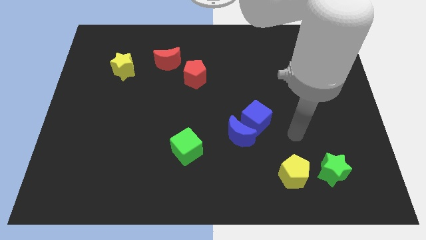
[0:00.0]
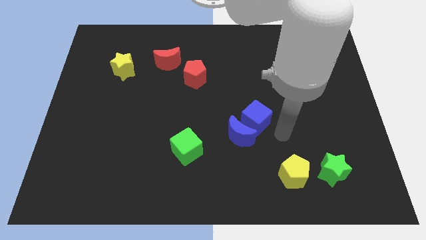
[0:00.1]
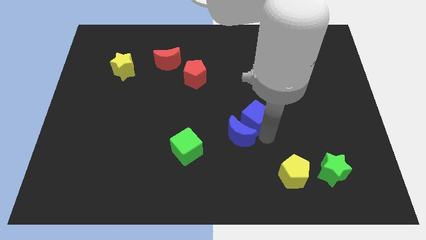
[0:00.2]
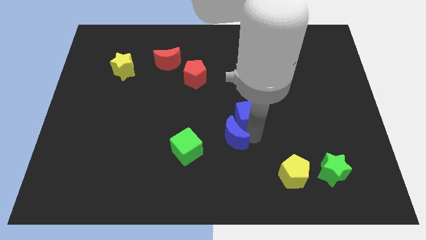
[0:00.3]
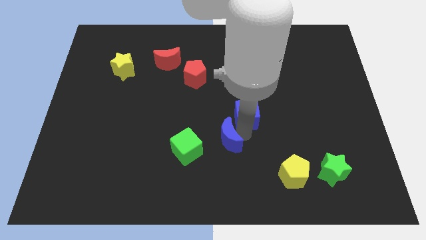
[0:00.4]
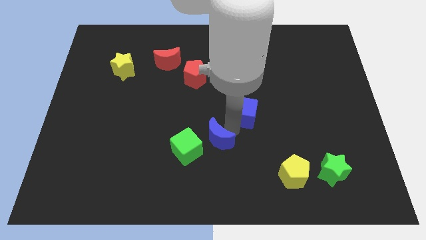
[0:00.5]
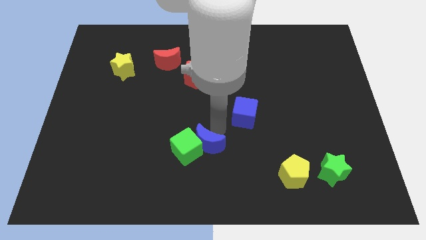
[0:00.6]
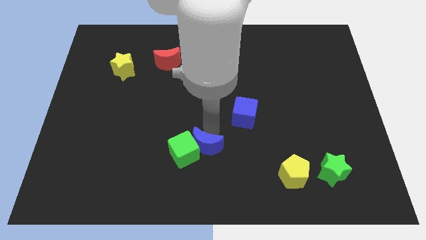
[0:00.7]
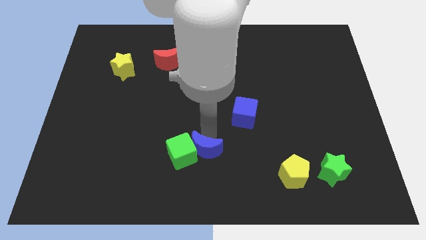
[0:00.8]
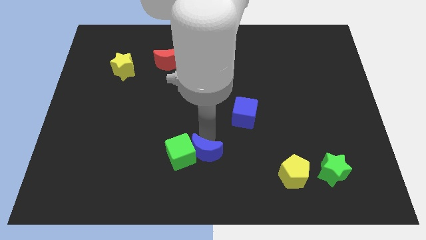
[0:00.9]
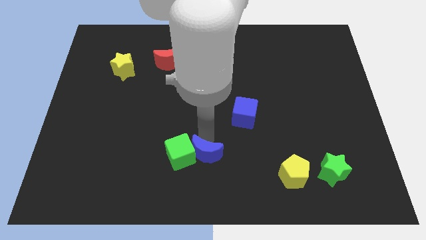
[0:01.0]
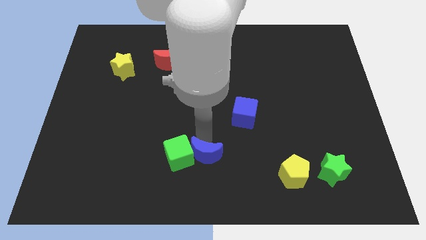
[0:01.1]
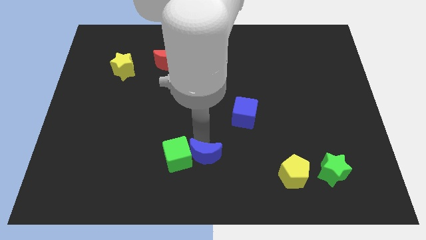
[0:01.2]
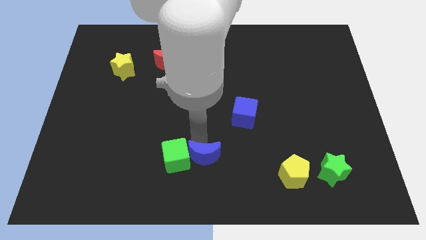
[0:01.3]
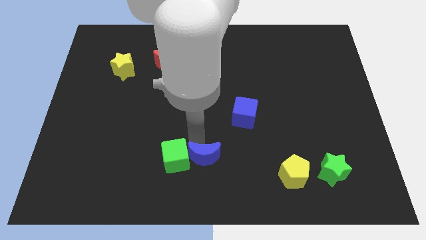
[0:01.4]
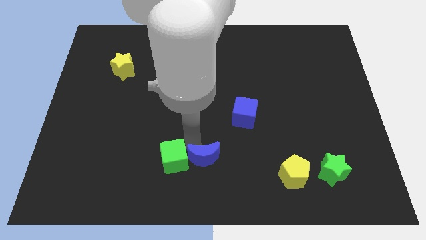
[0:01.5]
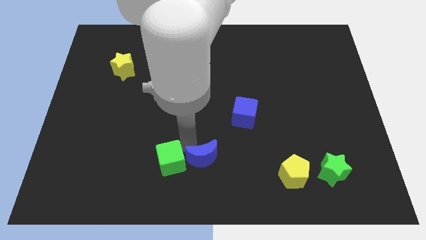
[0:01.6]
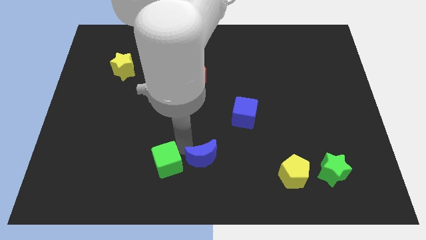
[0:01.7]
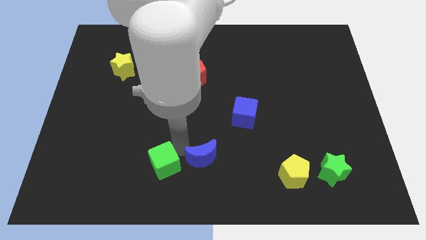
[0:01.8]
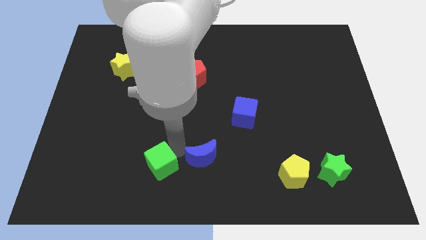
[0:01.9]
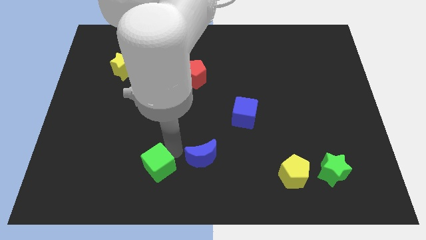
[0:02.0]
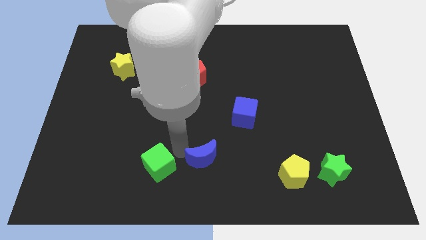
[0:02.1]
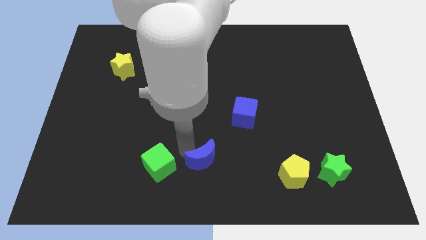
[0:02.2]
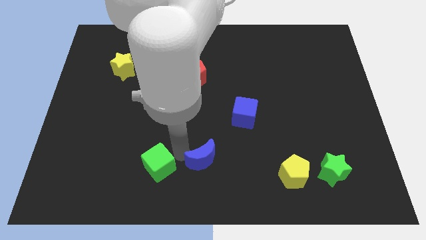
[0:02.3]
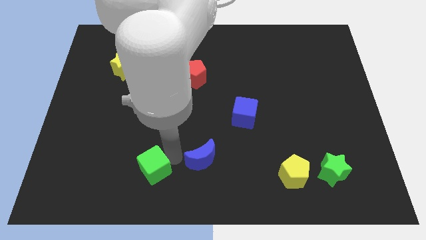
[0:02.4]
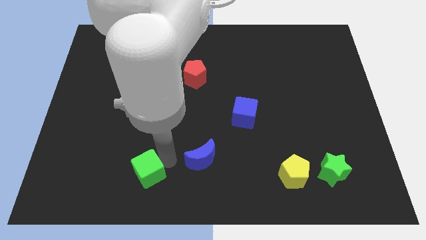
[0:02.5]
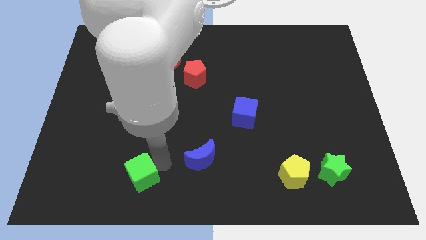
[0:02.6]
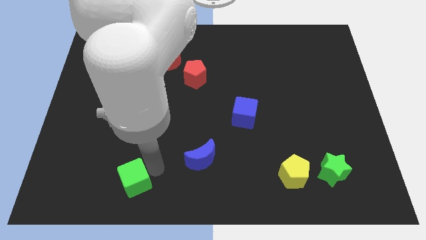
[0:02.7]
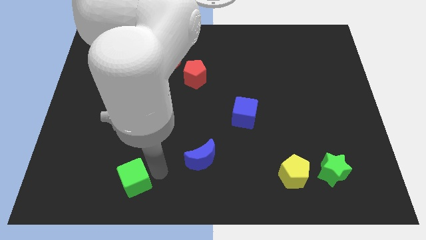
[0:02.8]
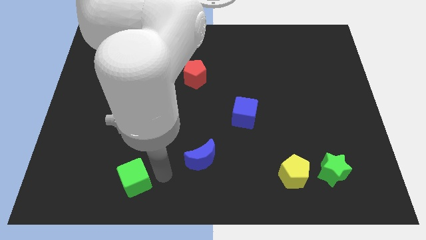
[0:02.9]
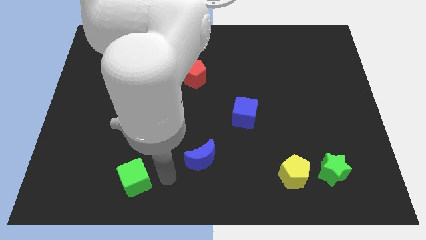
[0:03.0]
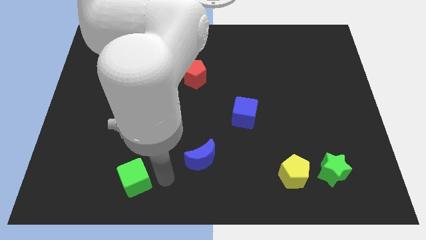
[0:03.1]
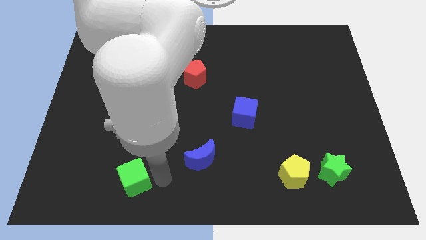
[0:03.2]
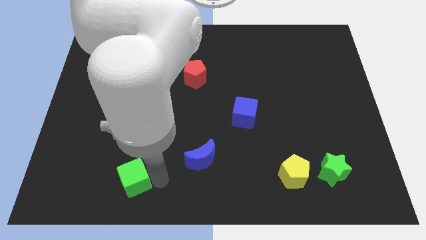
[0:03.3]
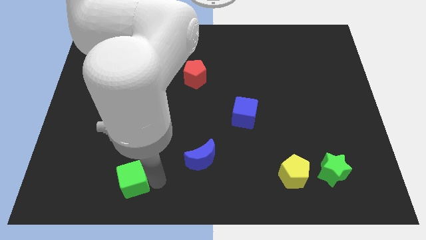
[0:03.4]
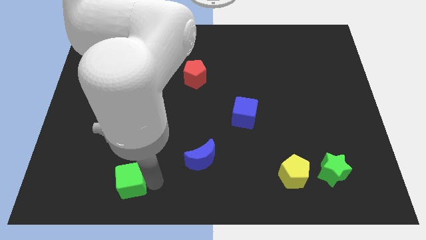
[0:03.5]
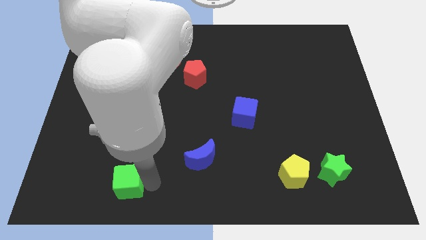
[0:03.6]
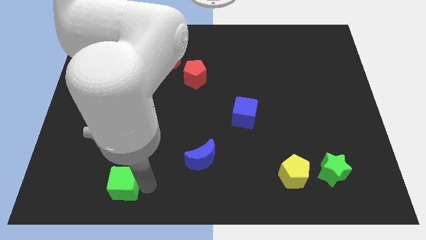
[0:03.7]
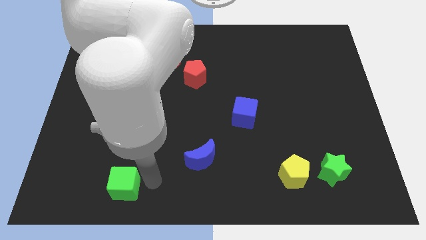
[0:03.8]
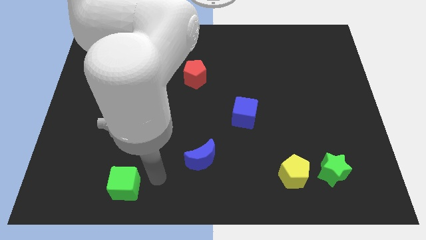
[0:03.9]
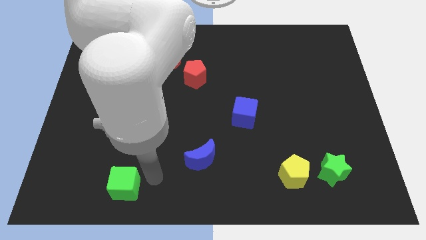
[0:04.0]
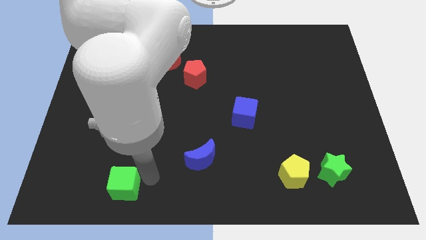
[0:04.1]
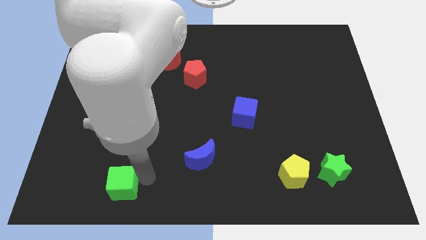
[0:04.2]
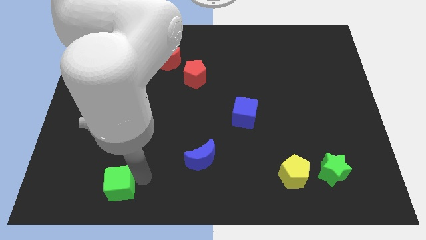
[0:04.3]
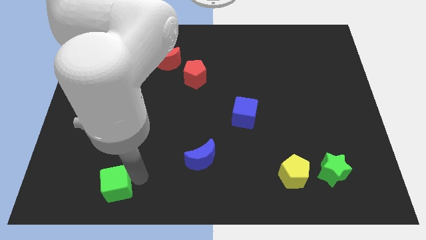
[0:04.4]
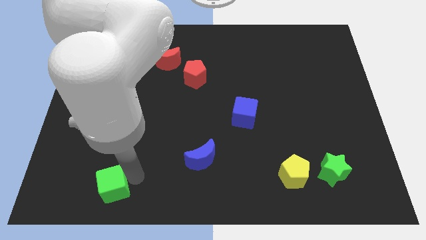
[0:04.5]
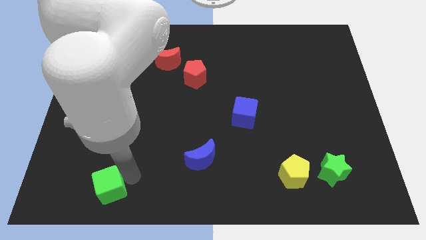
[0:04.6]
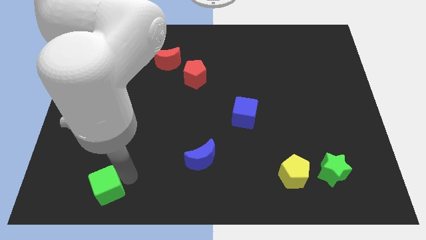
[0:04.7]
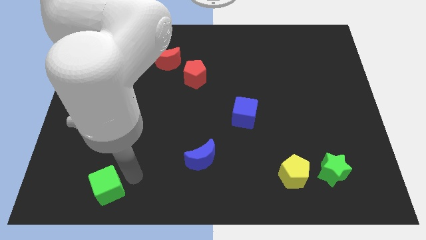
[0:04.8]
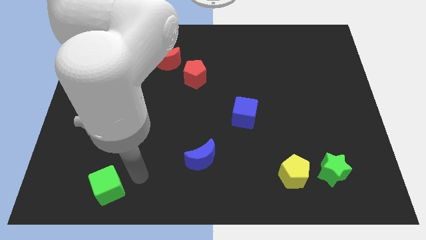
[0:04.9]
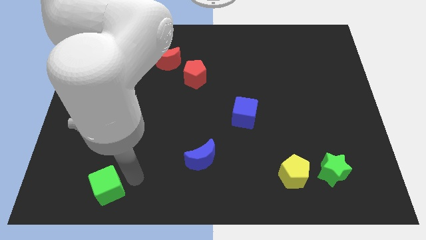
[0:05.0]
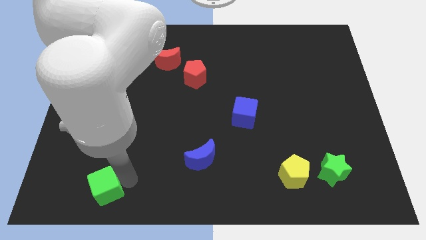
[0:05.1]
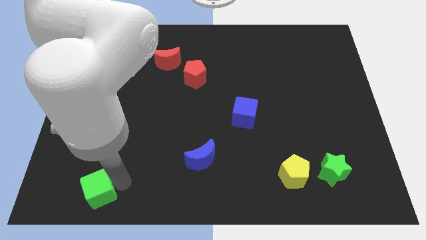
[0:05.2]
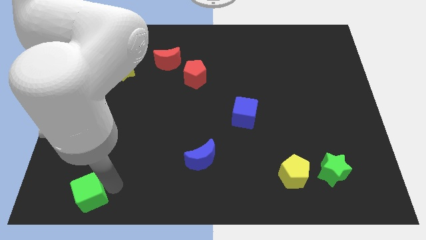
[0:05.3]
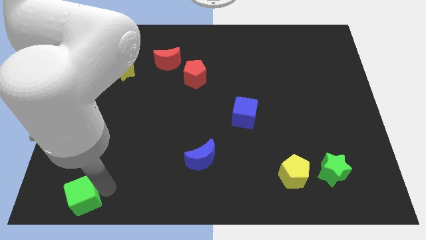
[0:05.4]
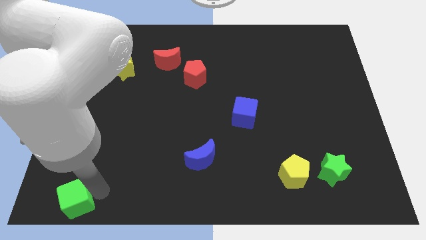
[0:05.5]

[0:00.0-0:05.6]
push the green cube to the lower left corner

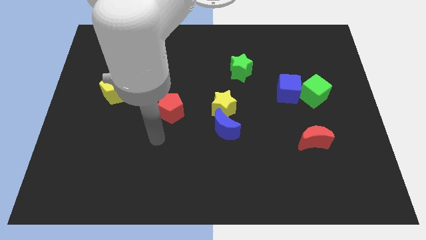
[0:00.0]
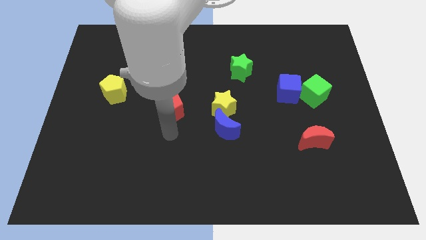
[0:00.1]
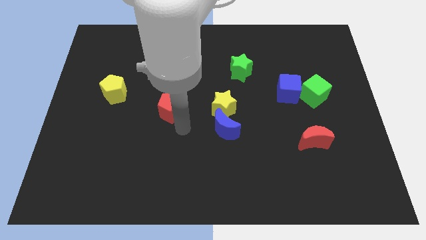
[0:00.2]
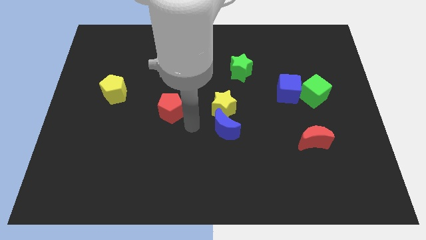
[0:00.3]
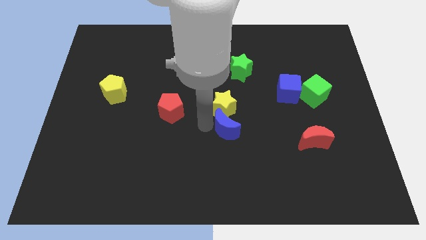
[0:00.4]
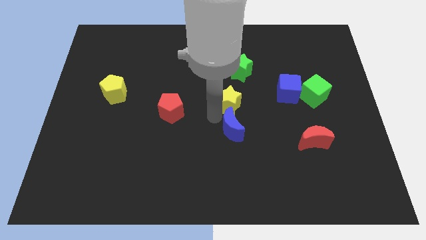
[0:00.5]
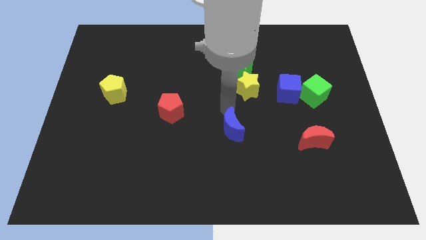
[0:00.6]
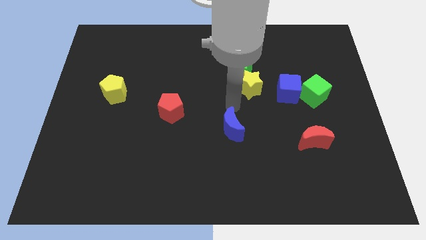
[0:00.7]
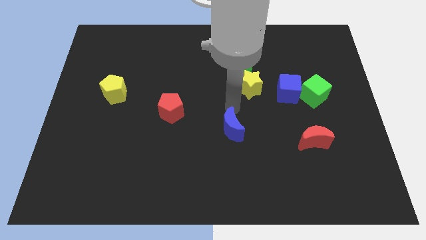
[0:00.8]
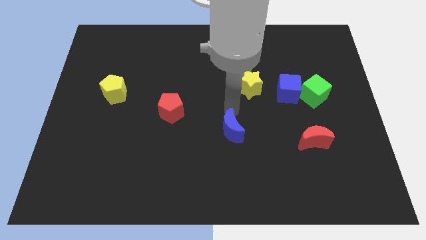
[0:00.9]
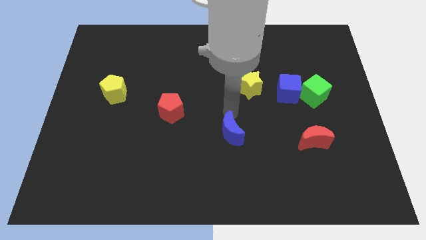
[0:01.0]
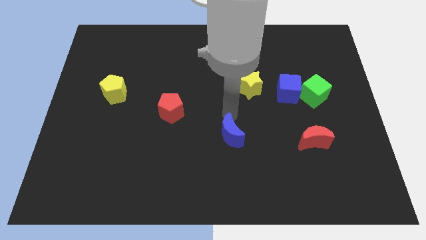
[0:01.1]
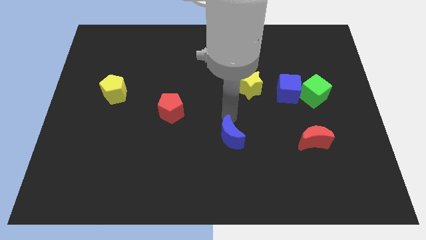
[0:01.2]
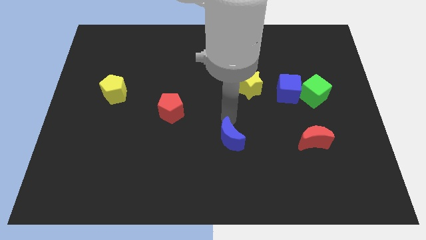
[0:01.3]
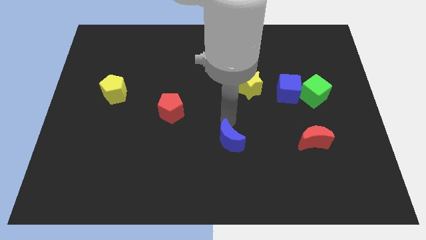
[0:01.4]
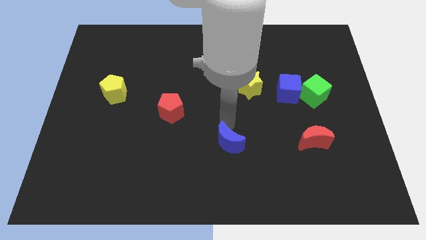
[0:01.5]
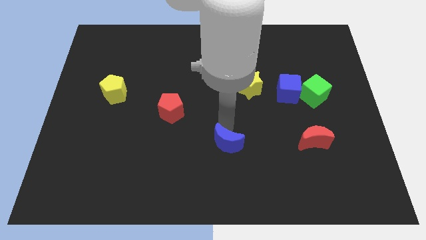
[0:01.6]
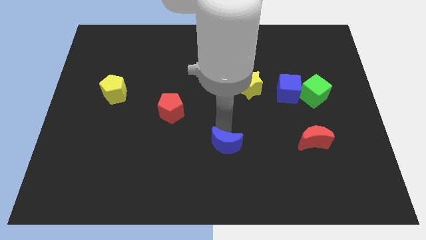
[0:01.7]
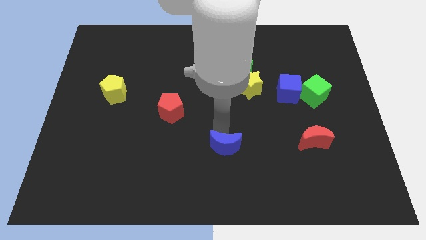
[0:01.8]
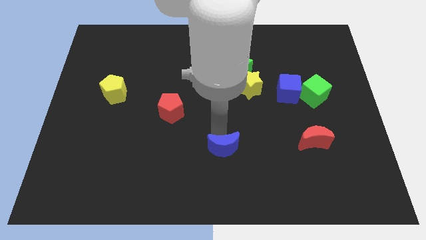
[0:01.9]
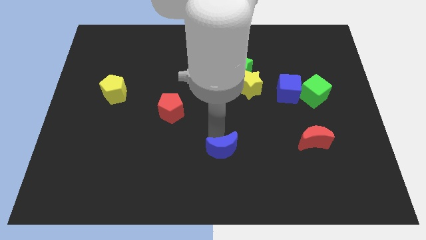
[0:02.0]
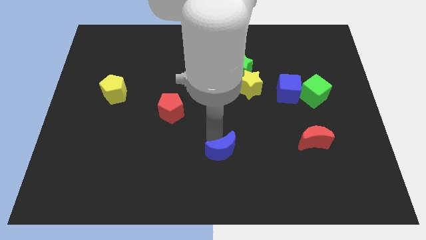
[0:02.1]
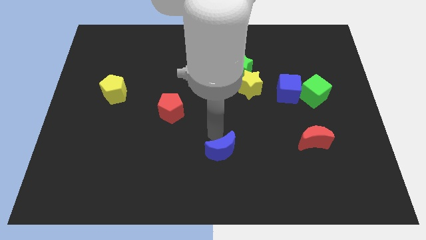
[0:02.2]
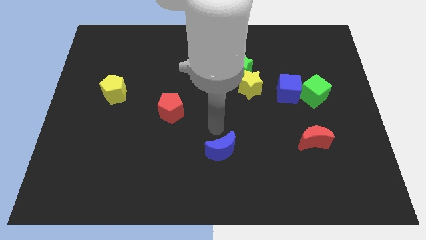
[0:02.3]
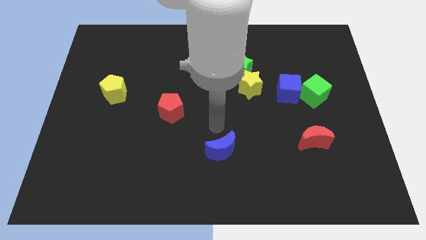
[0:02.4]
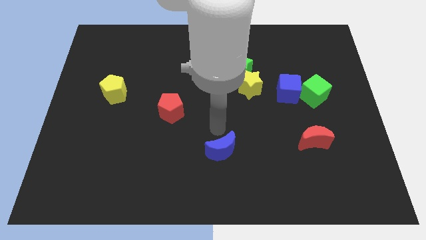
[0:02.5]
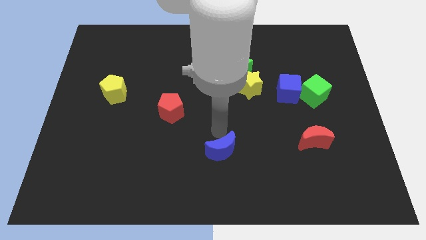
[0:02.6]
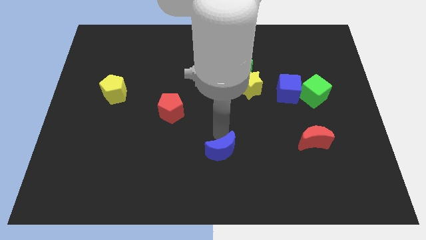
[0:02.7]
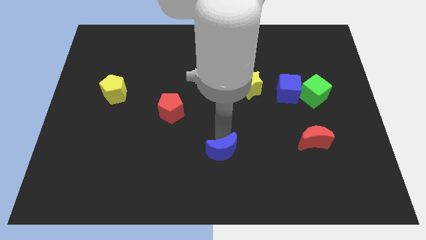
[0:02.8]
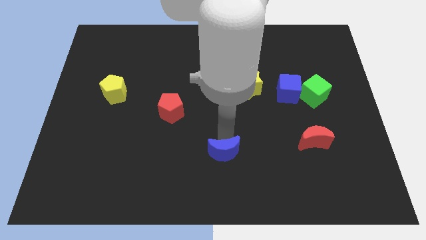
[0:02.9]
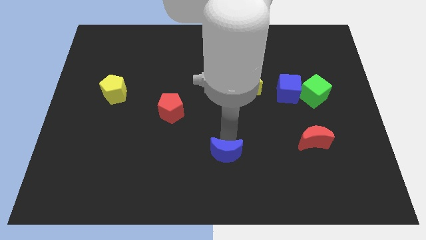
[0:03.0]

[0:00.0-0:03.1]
slide the blue moon to the bottom
